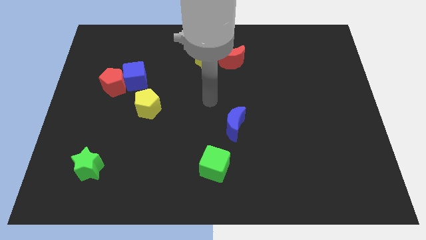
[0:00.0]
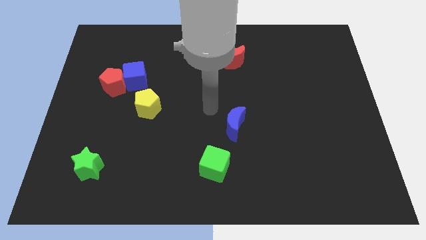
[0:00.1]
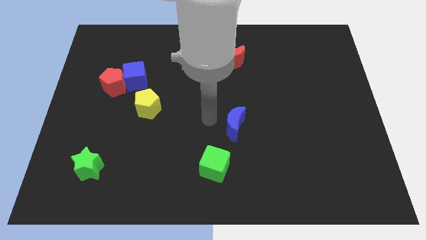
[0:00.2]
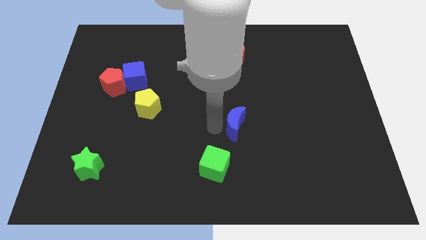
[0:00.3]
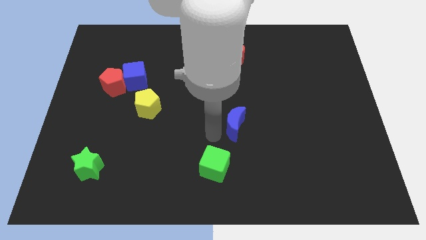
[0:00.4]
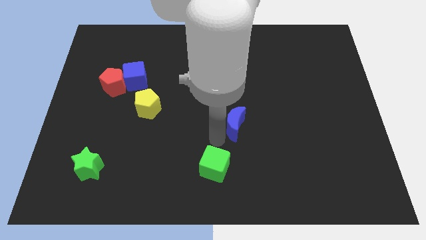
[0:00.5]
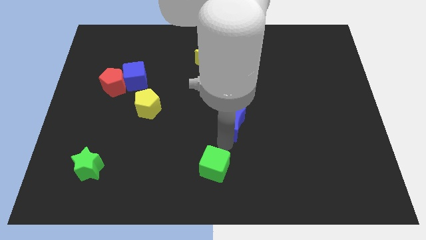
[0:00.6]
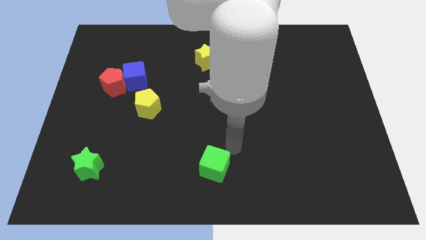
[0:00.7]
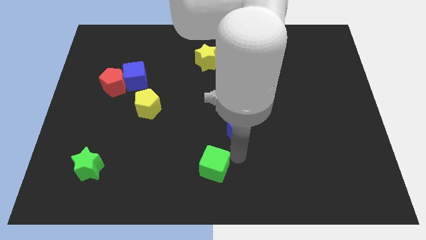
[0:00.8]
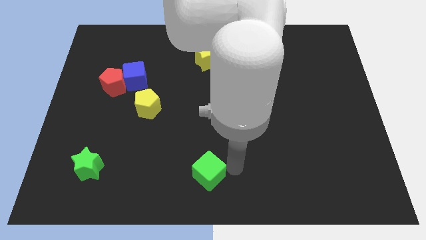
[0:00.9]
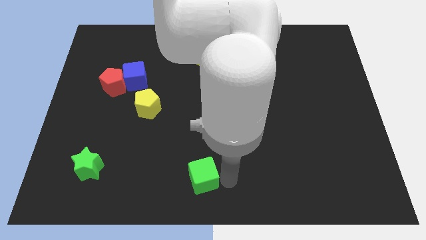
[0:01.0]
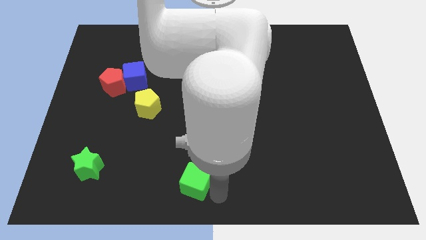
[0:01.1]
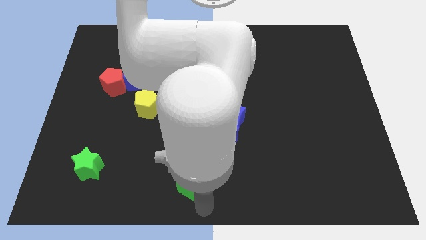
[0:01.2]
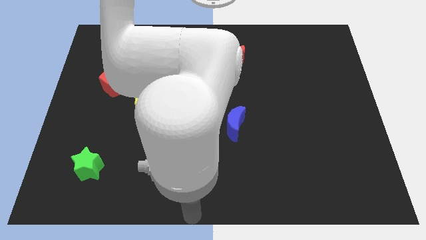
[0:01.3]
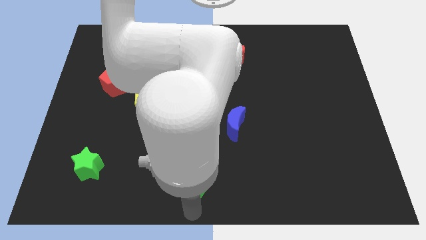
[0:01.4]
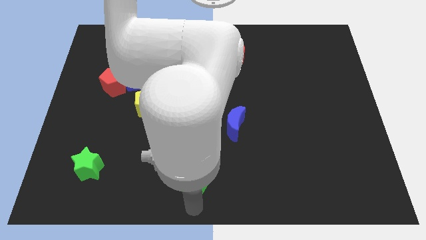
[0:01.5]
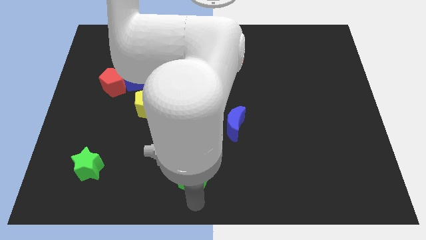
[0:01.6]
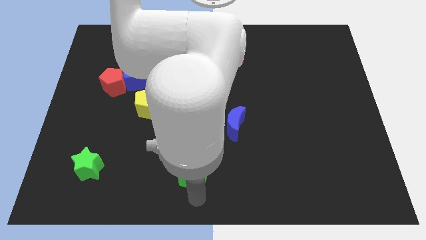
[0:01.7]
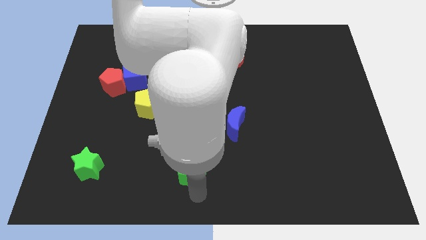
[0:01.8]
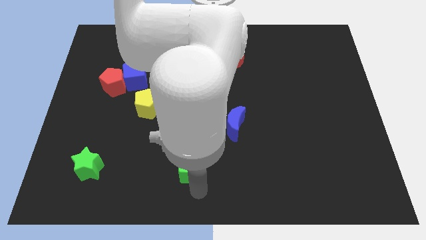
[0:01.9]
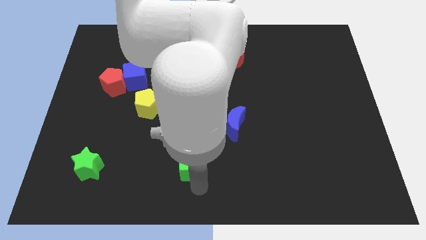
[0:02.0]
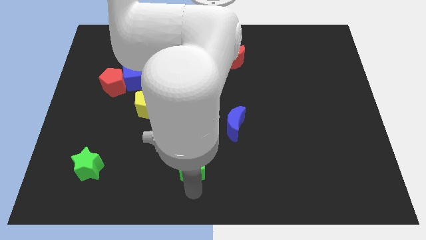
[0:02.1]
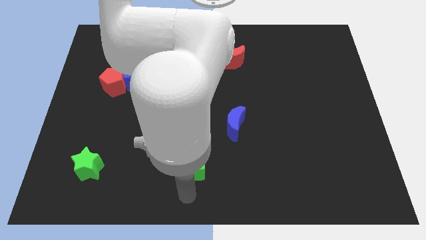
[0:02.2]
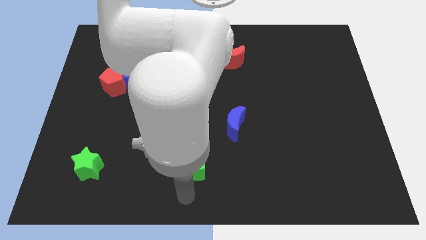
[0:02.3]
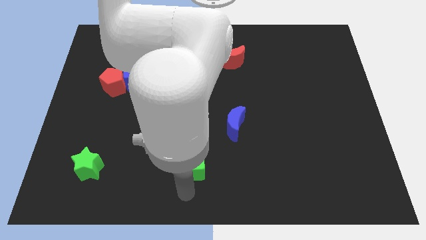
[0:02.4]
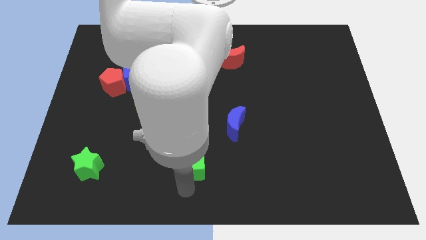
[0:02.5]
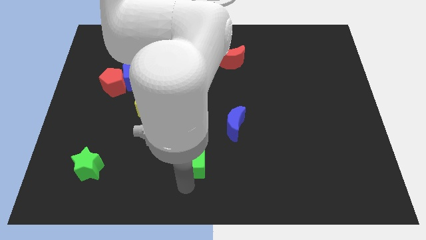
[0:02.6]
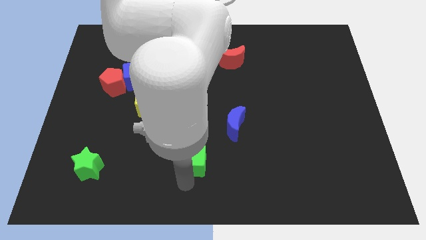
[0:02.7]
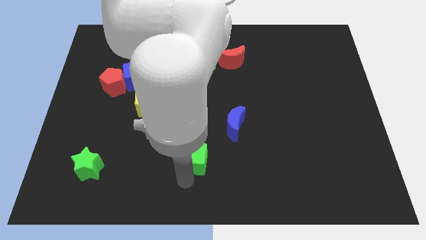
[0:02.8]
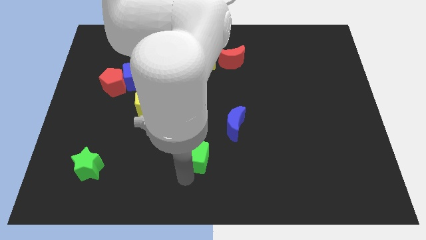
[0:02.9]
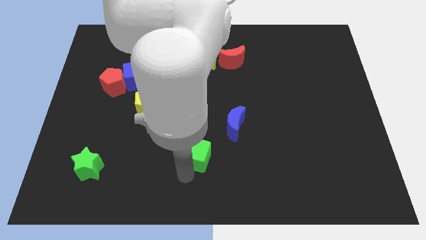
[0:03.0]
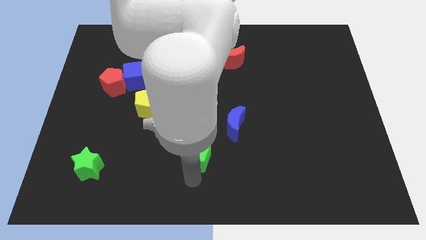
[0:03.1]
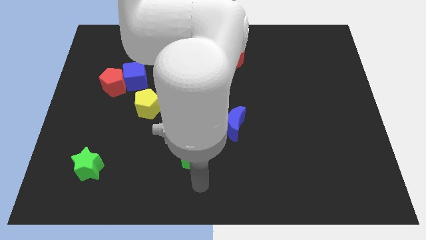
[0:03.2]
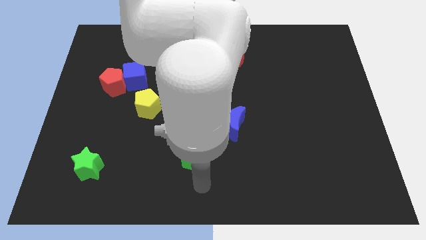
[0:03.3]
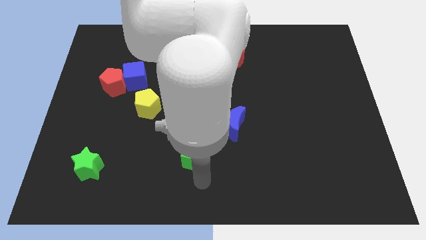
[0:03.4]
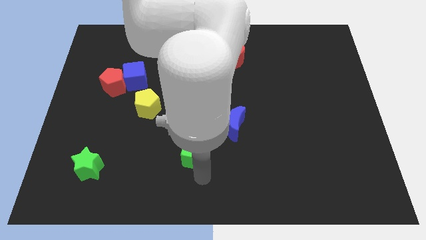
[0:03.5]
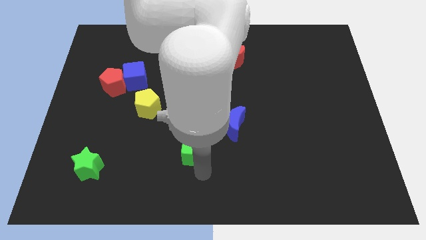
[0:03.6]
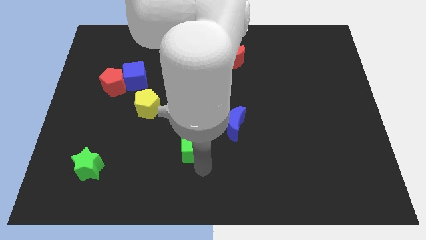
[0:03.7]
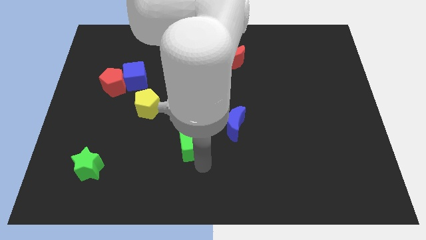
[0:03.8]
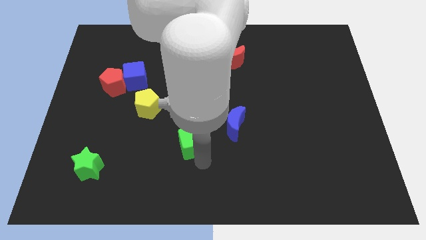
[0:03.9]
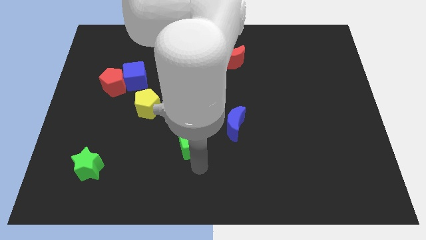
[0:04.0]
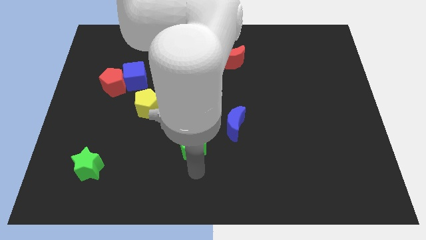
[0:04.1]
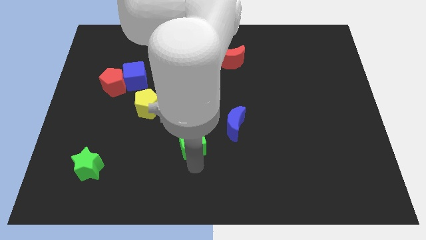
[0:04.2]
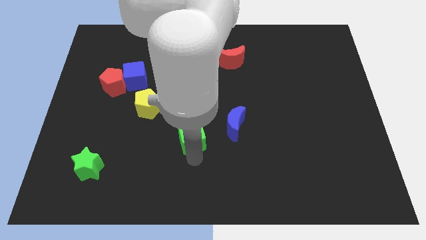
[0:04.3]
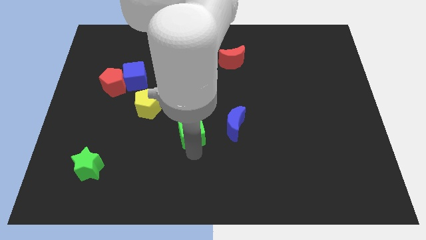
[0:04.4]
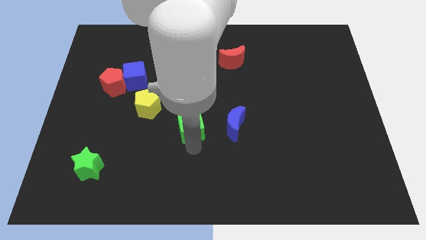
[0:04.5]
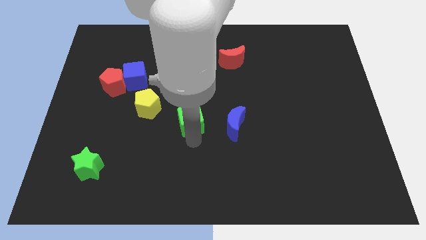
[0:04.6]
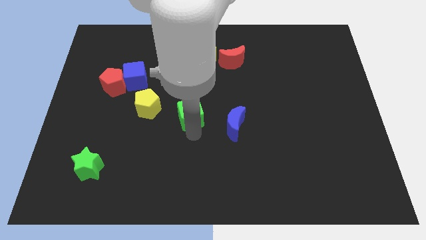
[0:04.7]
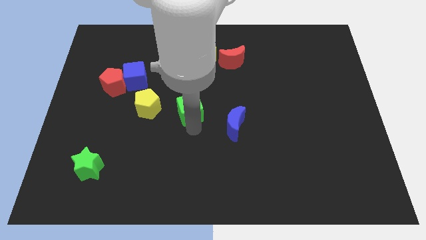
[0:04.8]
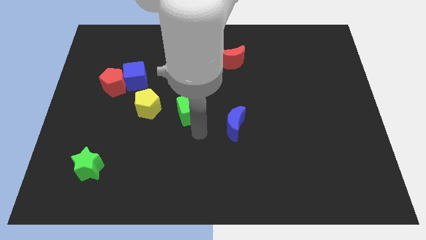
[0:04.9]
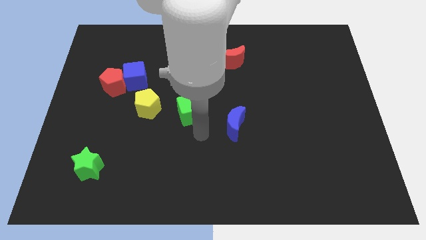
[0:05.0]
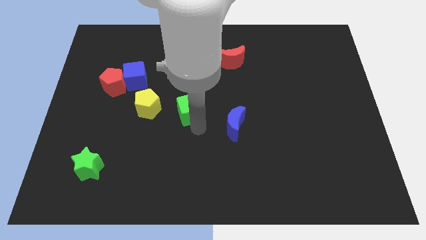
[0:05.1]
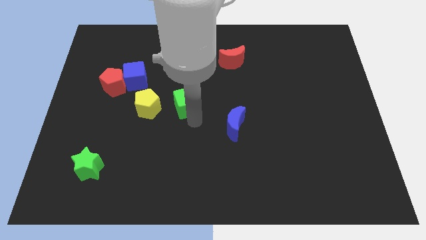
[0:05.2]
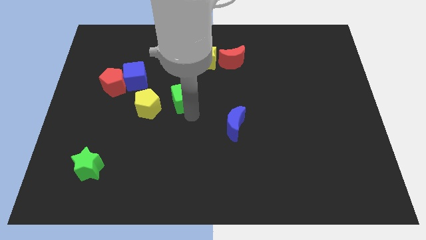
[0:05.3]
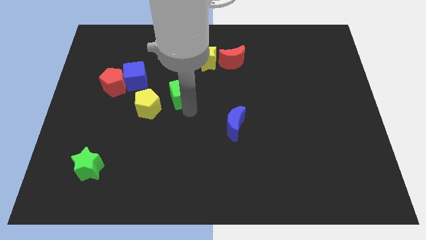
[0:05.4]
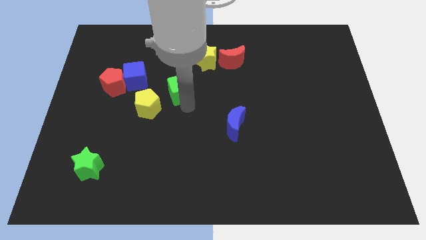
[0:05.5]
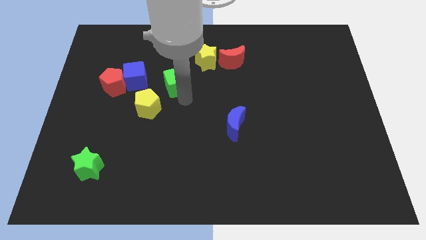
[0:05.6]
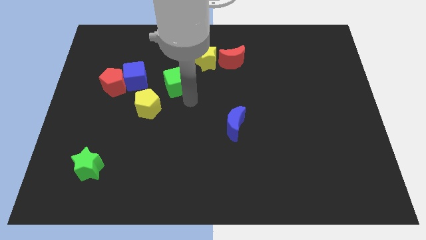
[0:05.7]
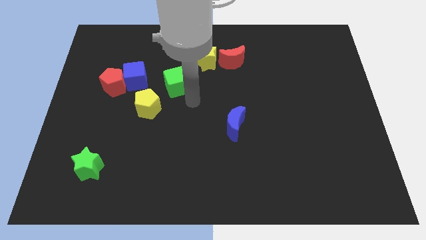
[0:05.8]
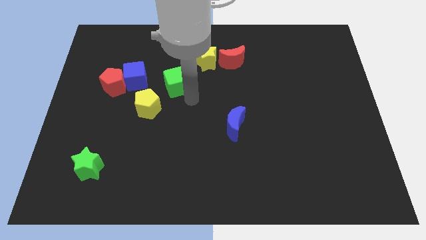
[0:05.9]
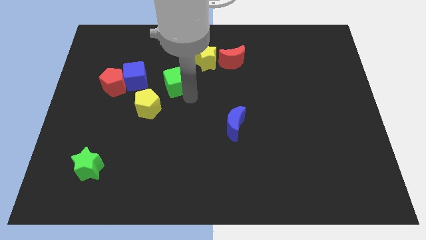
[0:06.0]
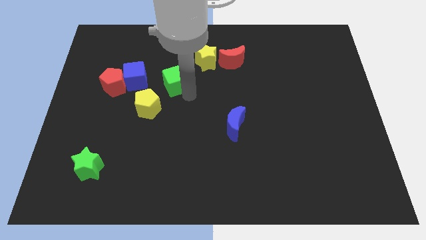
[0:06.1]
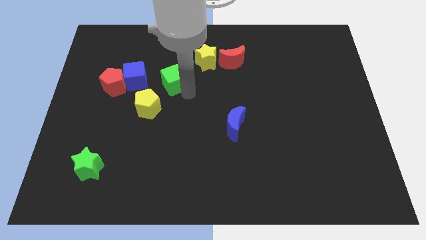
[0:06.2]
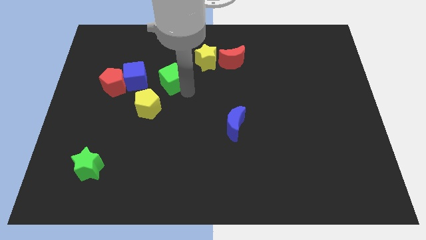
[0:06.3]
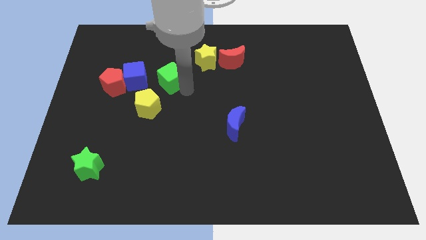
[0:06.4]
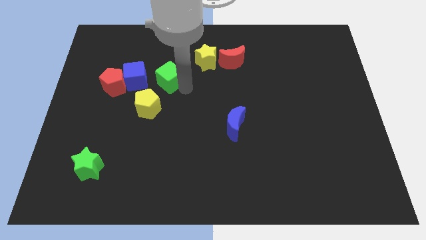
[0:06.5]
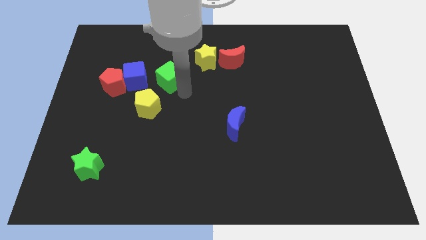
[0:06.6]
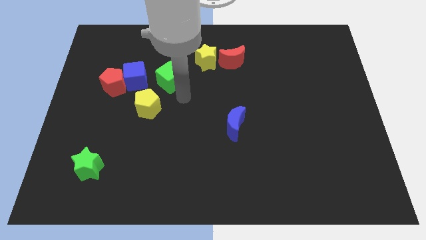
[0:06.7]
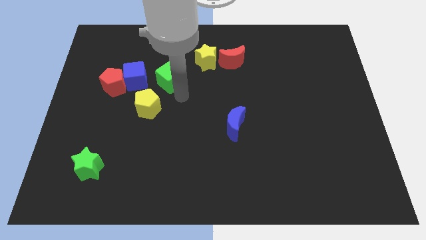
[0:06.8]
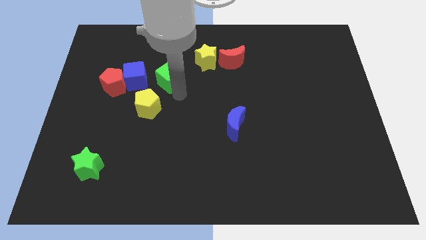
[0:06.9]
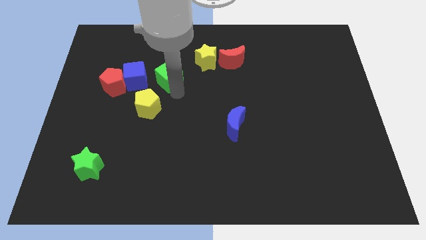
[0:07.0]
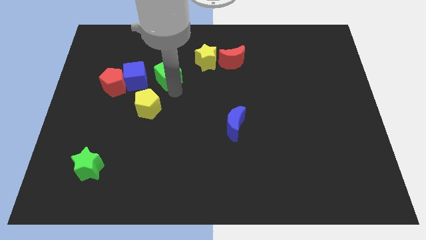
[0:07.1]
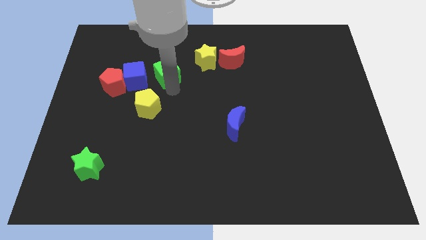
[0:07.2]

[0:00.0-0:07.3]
push the green cube diagonally up and to the right of the blue cube
